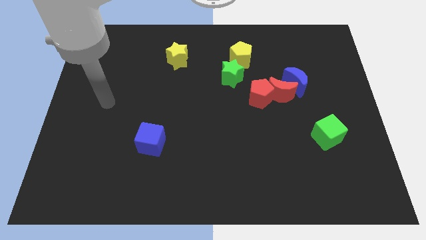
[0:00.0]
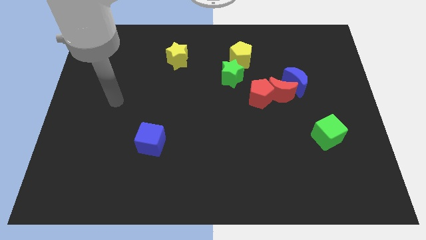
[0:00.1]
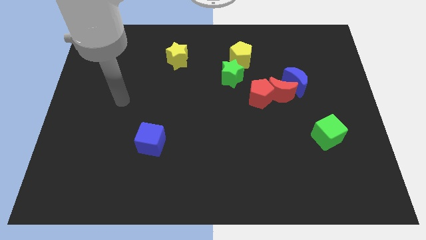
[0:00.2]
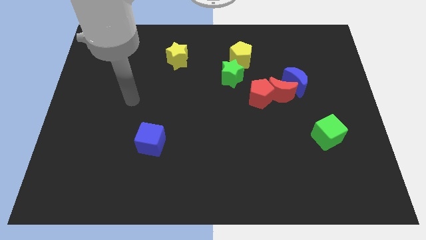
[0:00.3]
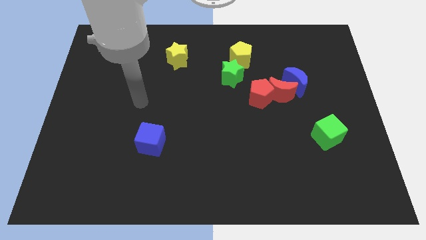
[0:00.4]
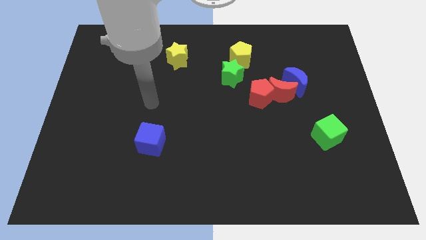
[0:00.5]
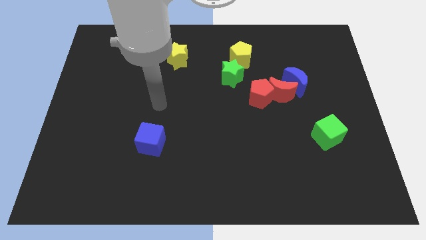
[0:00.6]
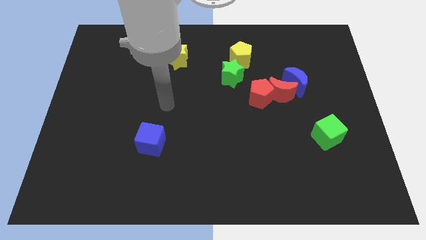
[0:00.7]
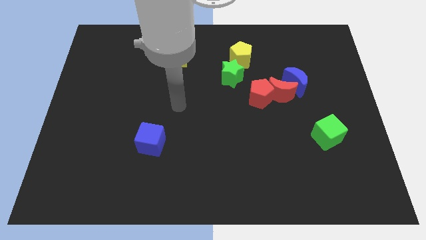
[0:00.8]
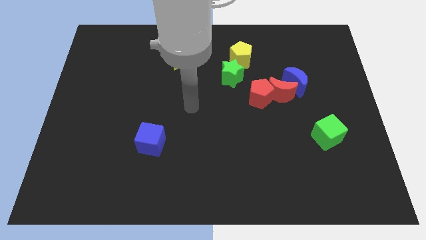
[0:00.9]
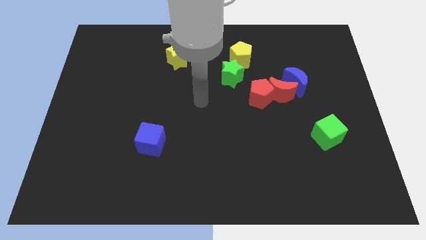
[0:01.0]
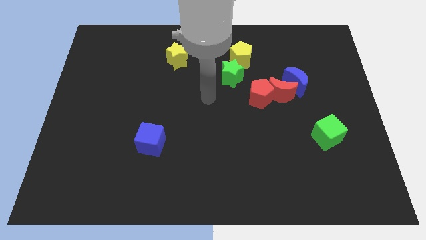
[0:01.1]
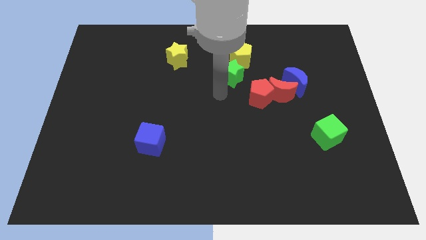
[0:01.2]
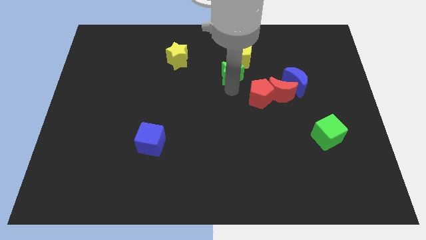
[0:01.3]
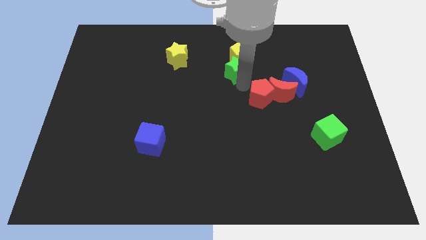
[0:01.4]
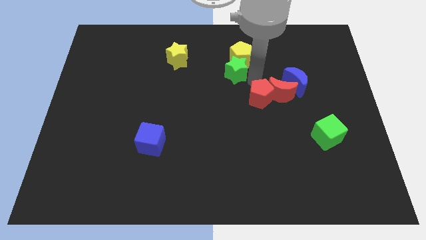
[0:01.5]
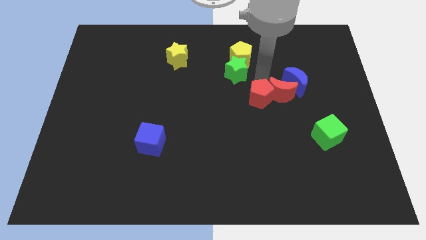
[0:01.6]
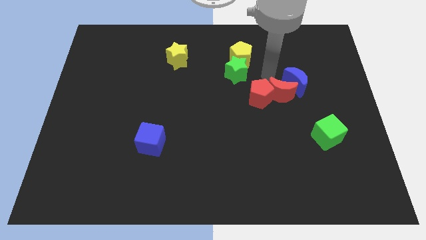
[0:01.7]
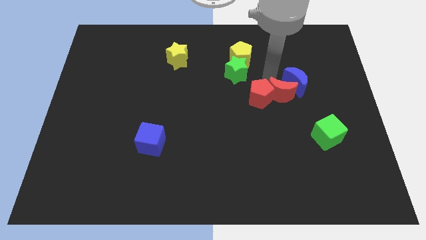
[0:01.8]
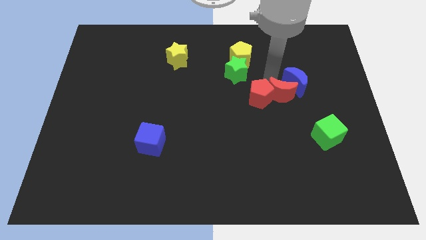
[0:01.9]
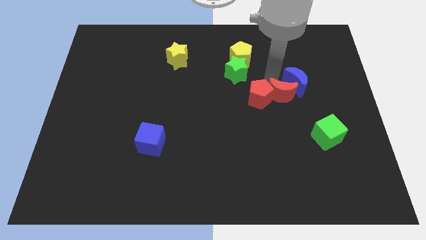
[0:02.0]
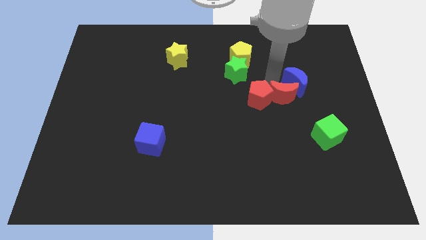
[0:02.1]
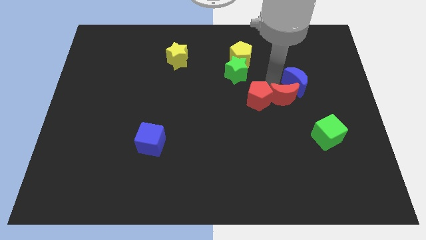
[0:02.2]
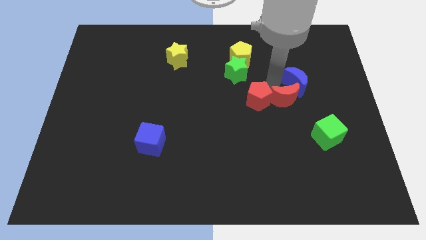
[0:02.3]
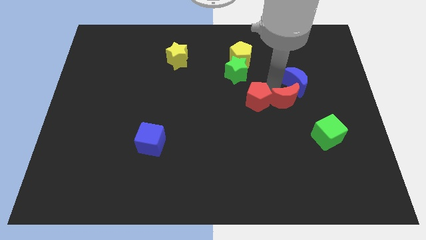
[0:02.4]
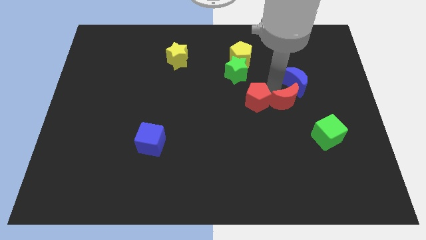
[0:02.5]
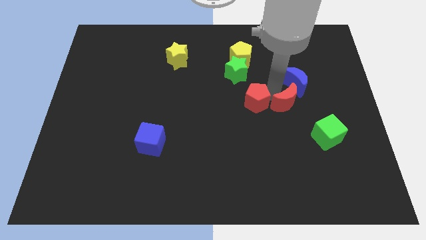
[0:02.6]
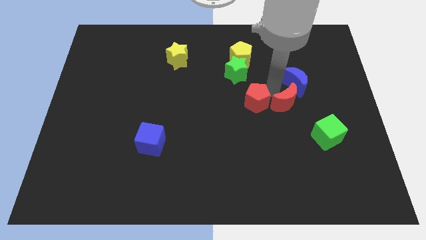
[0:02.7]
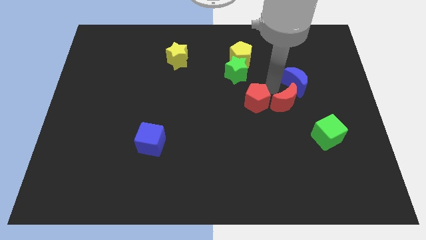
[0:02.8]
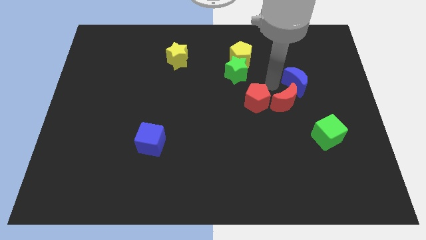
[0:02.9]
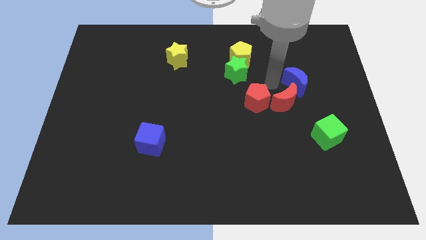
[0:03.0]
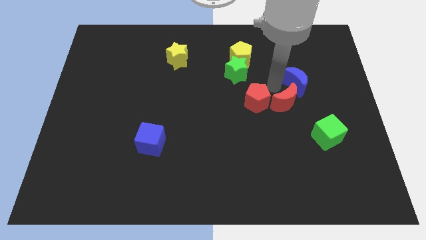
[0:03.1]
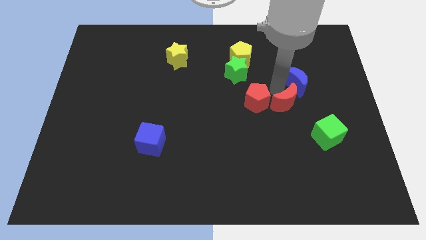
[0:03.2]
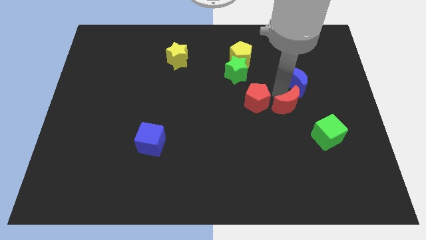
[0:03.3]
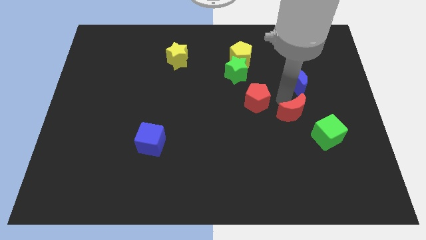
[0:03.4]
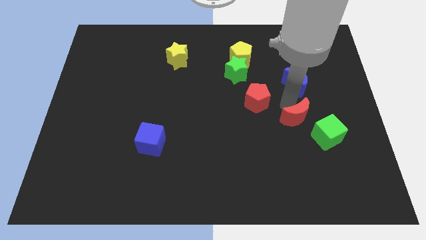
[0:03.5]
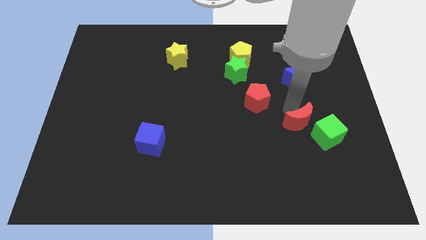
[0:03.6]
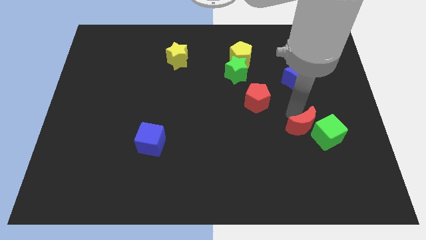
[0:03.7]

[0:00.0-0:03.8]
pull the red moon apart from the red pentagon and blue moon

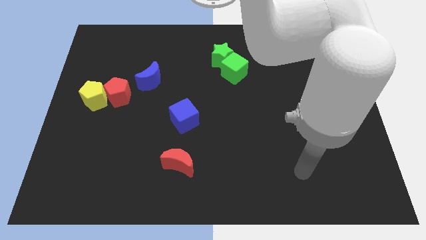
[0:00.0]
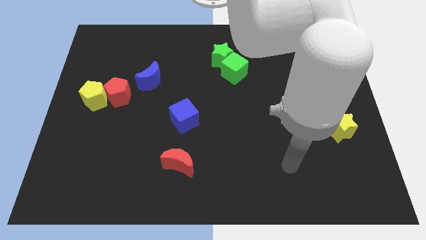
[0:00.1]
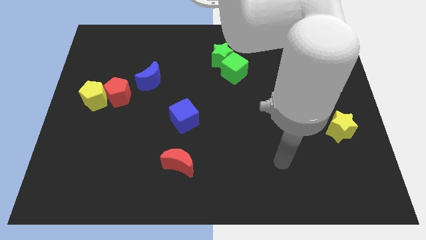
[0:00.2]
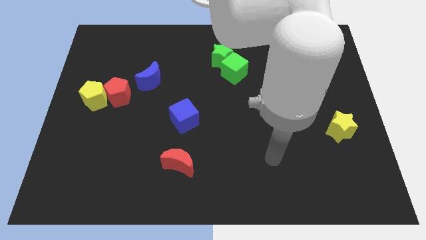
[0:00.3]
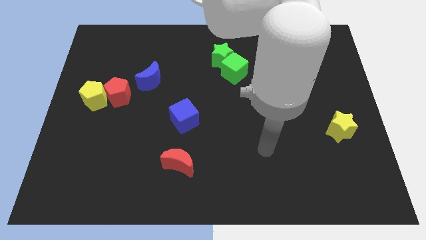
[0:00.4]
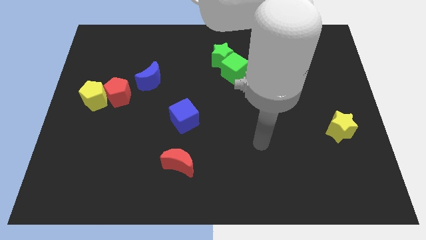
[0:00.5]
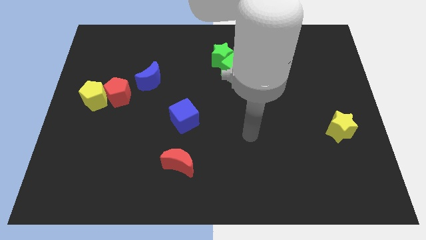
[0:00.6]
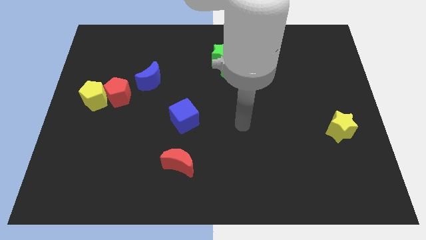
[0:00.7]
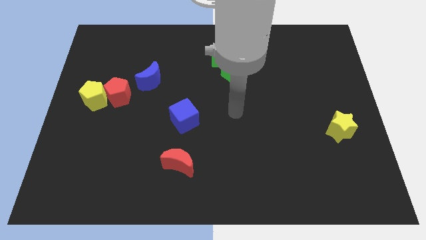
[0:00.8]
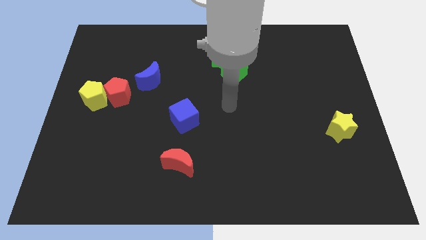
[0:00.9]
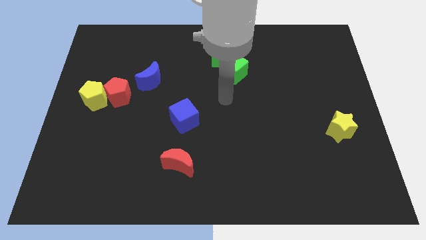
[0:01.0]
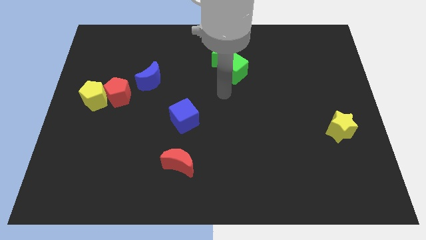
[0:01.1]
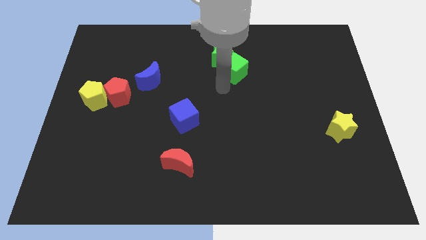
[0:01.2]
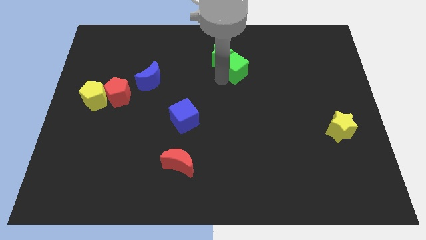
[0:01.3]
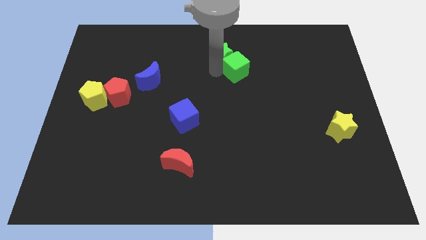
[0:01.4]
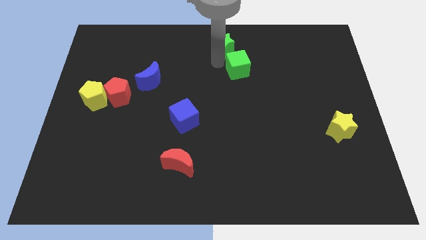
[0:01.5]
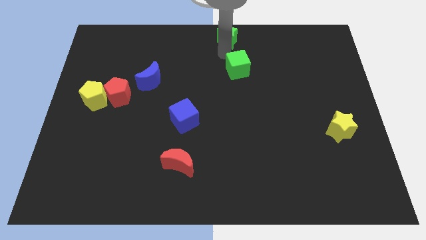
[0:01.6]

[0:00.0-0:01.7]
move the green cube away from the green star

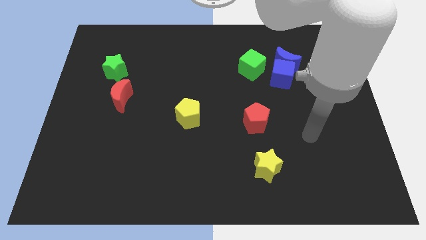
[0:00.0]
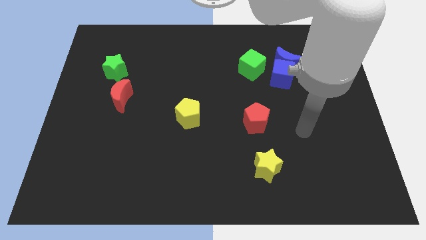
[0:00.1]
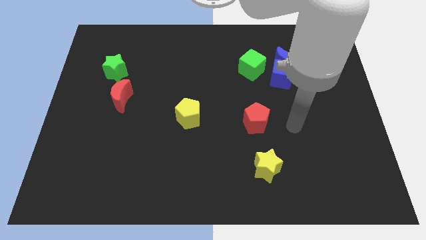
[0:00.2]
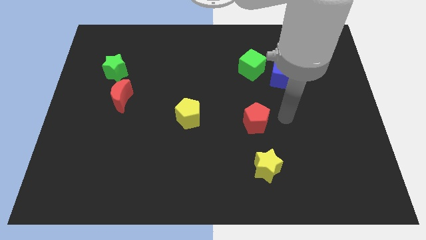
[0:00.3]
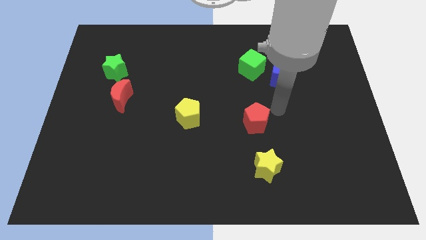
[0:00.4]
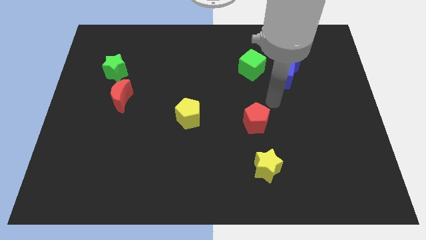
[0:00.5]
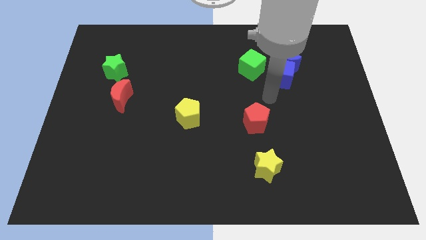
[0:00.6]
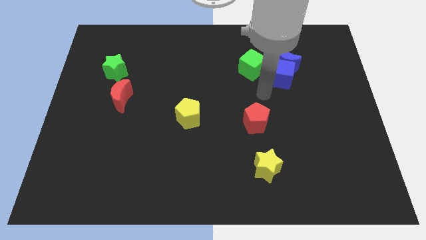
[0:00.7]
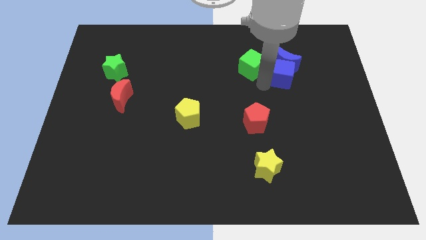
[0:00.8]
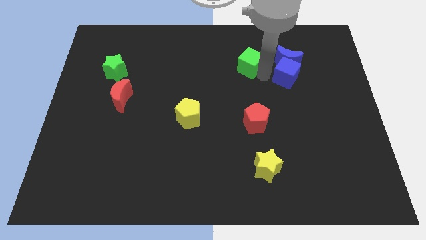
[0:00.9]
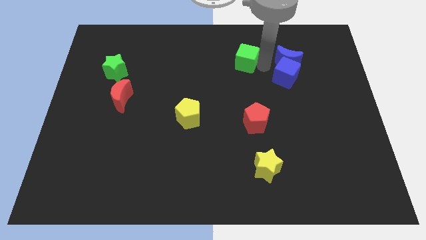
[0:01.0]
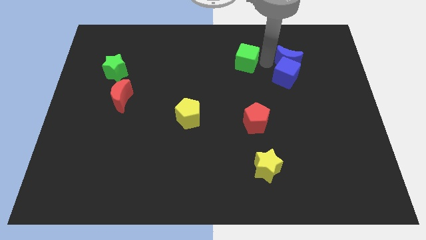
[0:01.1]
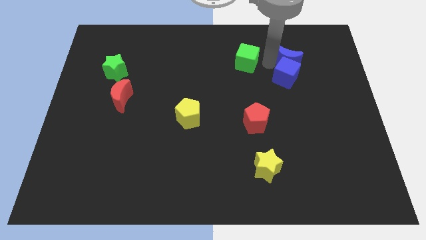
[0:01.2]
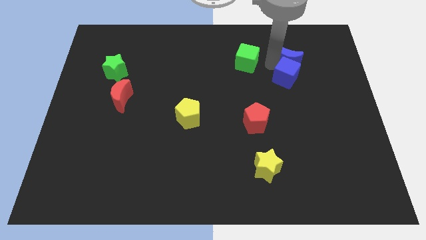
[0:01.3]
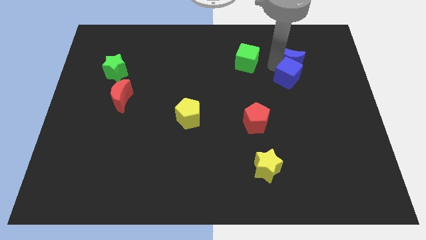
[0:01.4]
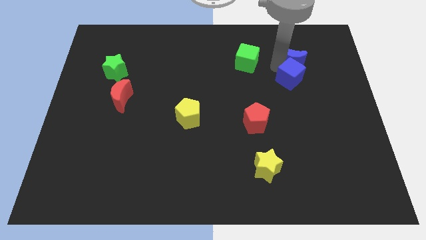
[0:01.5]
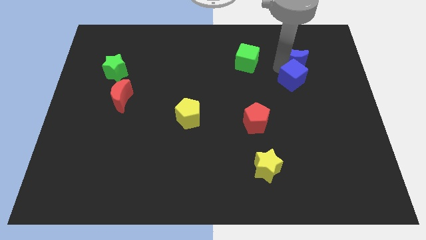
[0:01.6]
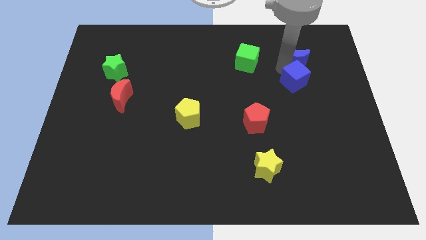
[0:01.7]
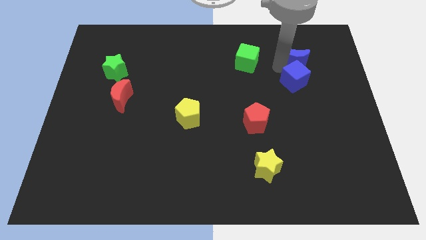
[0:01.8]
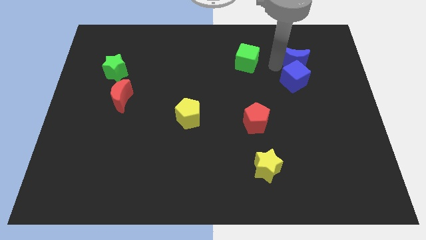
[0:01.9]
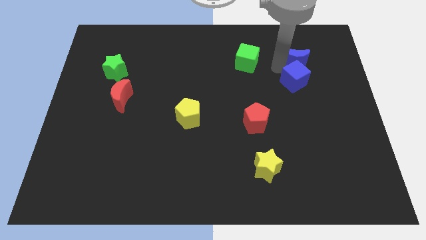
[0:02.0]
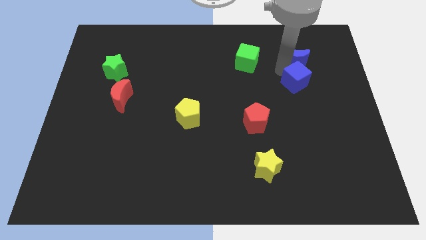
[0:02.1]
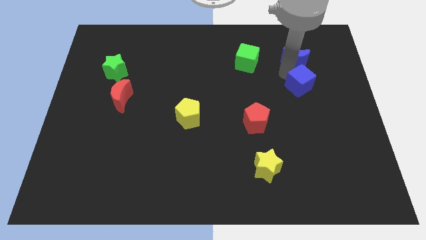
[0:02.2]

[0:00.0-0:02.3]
pull the blue cube apart from the blue moon and green cube

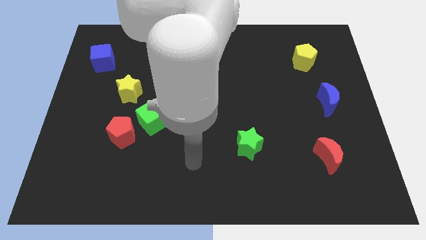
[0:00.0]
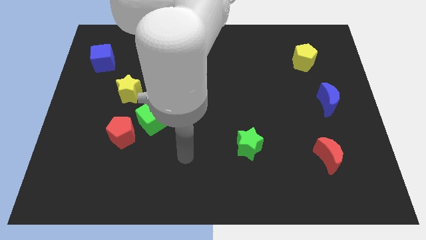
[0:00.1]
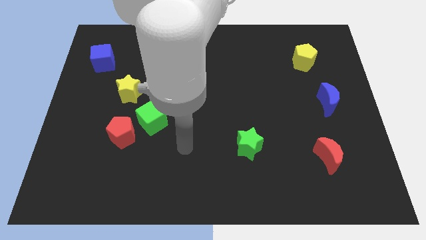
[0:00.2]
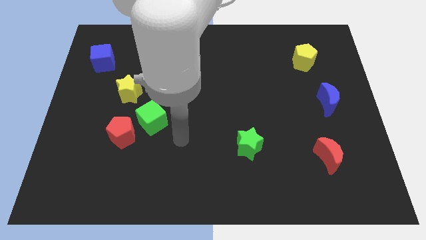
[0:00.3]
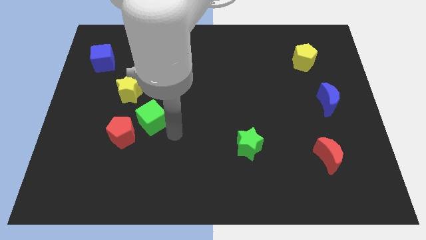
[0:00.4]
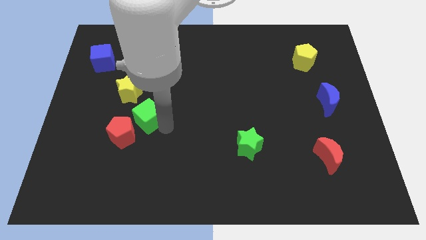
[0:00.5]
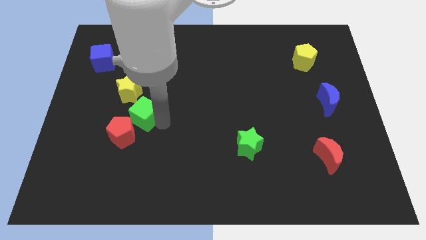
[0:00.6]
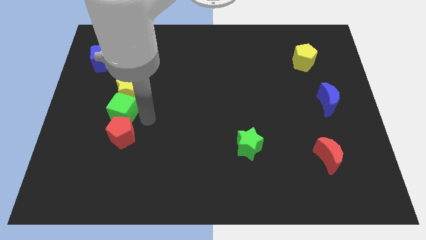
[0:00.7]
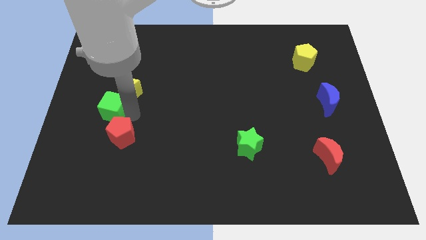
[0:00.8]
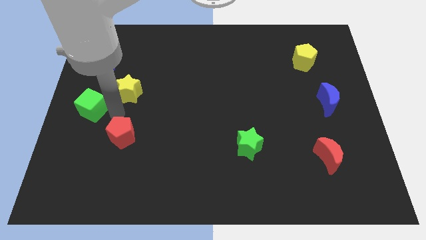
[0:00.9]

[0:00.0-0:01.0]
separate the red pentagon from the green cube

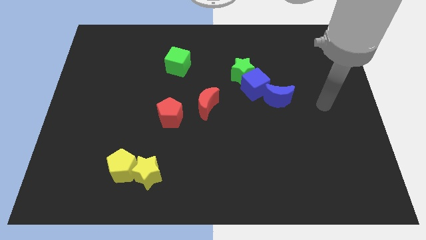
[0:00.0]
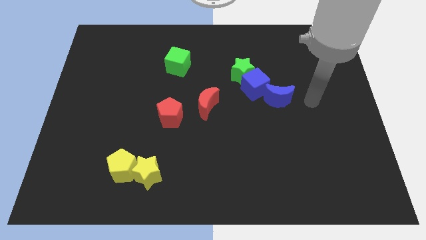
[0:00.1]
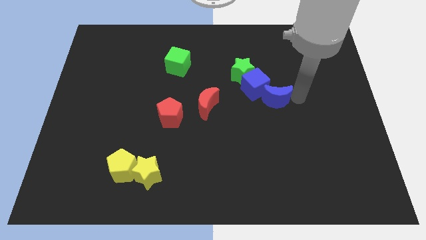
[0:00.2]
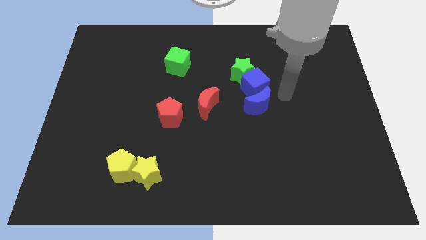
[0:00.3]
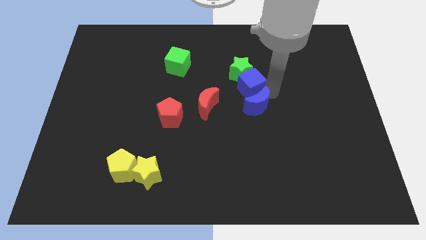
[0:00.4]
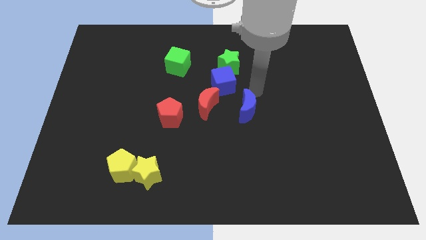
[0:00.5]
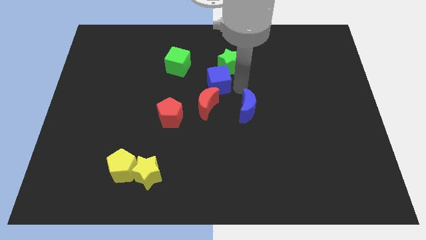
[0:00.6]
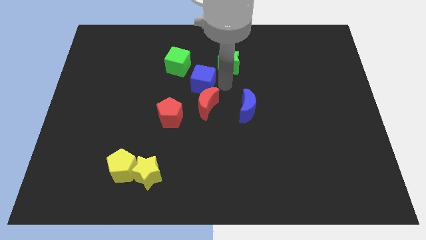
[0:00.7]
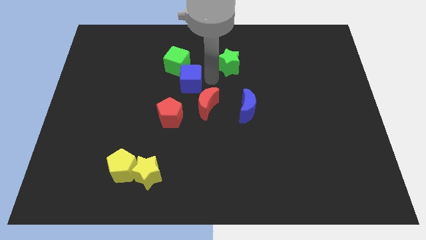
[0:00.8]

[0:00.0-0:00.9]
pull the green star apart from the blue cube
